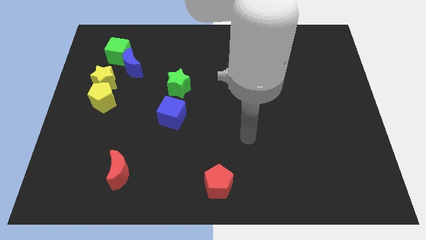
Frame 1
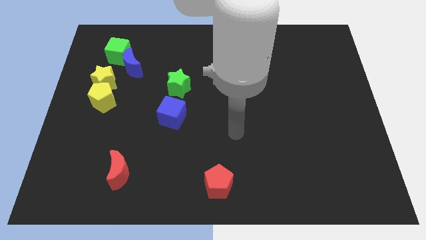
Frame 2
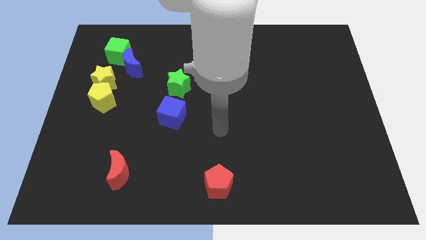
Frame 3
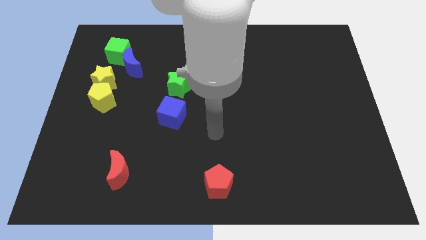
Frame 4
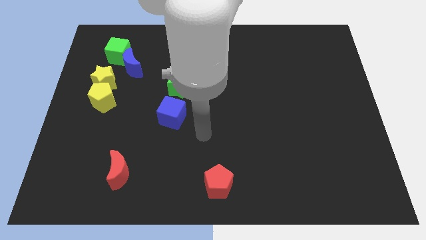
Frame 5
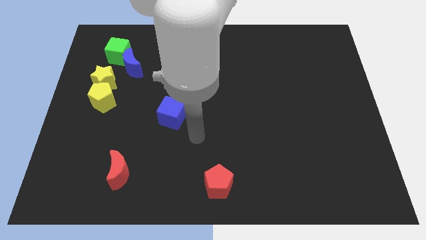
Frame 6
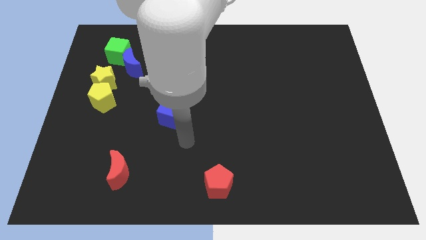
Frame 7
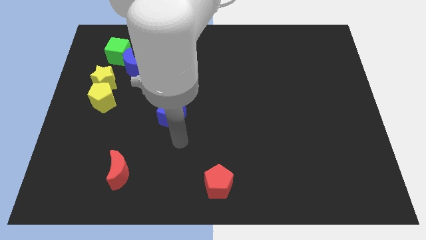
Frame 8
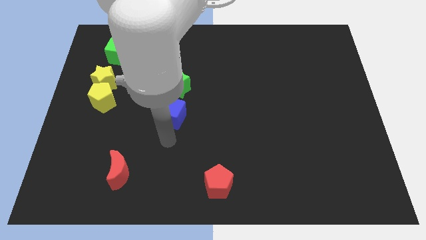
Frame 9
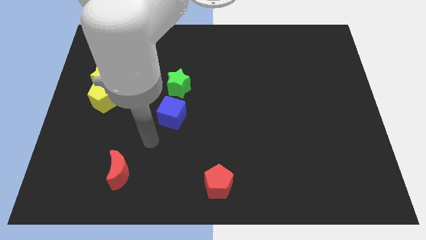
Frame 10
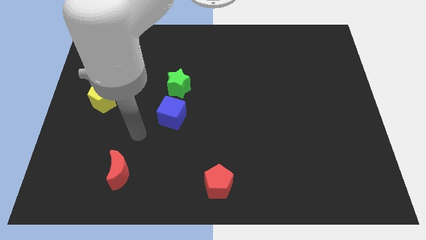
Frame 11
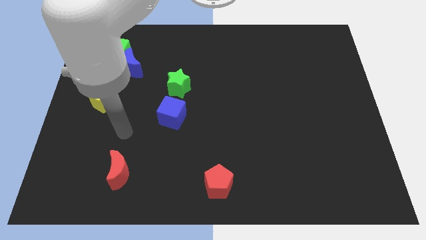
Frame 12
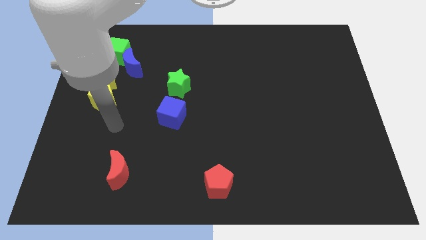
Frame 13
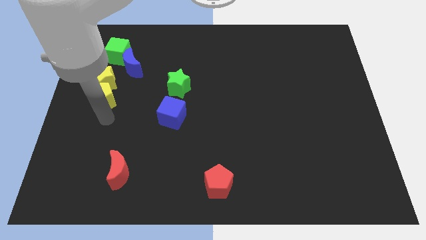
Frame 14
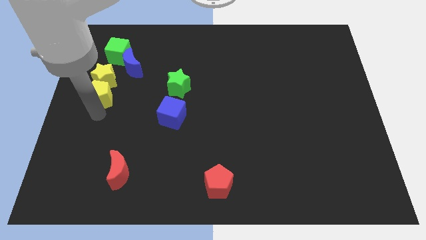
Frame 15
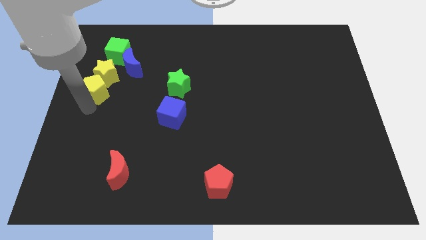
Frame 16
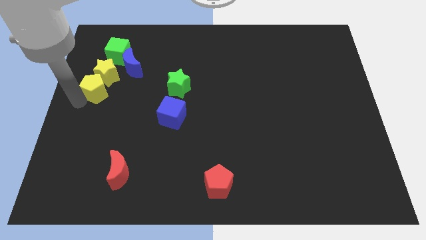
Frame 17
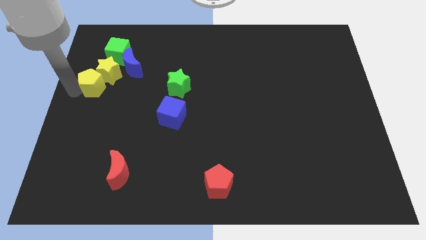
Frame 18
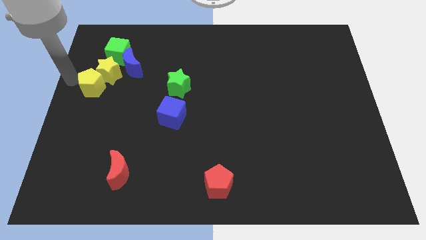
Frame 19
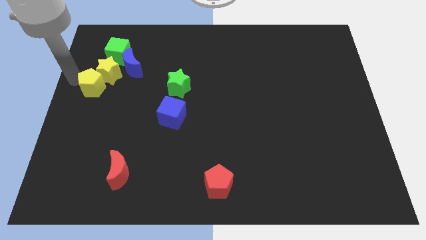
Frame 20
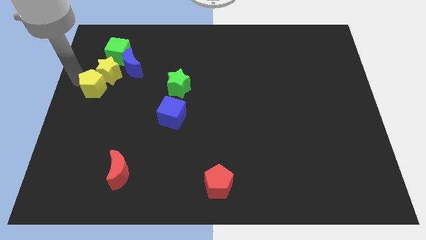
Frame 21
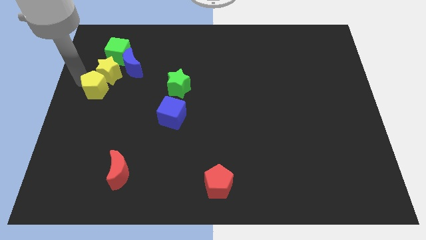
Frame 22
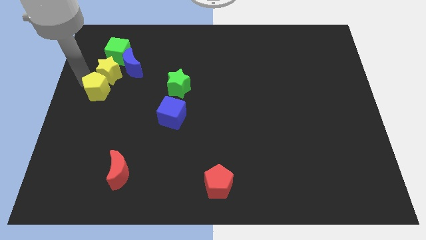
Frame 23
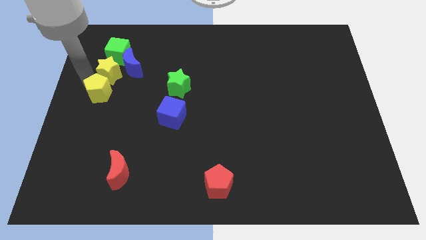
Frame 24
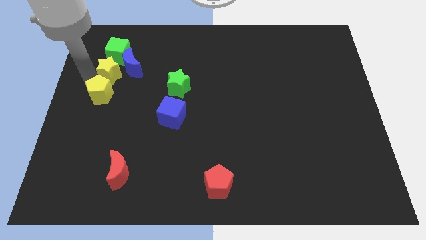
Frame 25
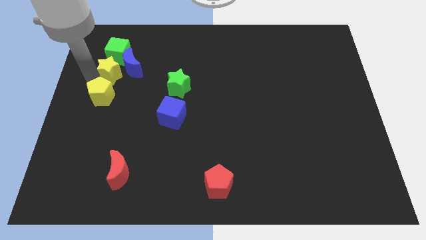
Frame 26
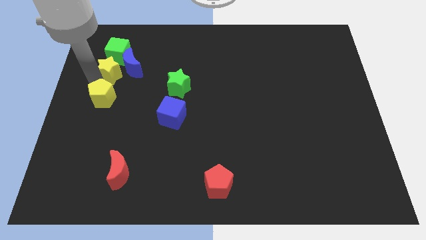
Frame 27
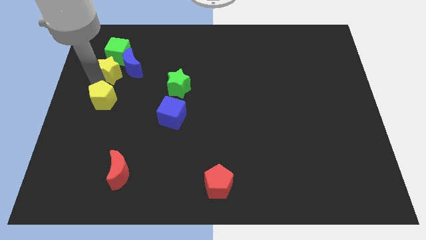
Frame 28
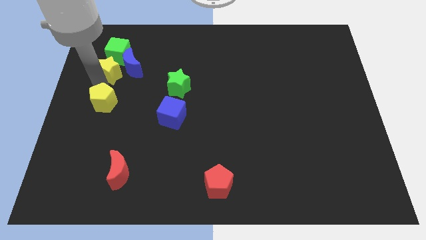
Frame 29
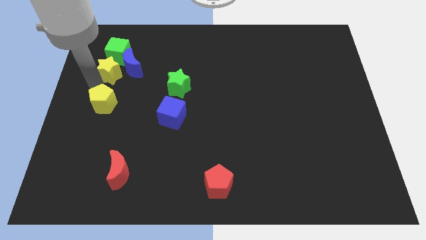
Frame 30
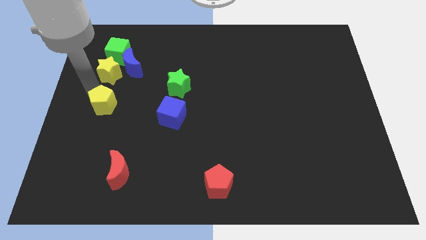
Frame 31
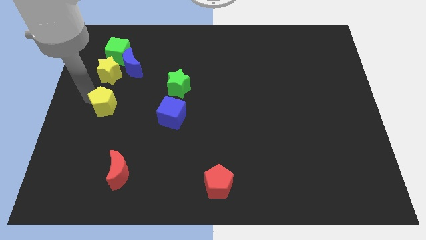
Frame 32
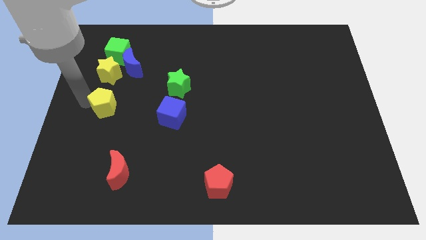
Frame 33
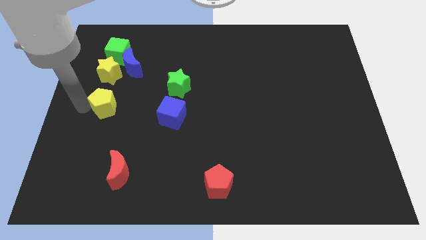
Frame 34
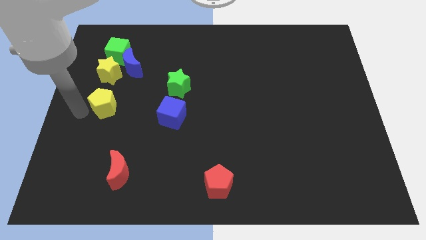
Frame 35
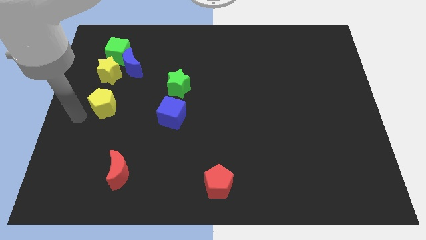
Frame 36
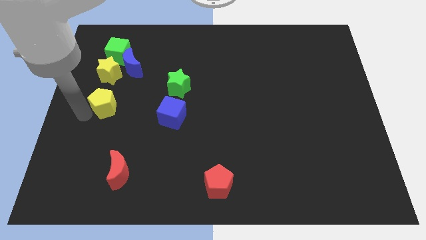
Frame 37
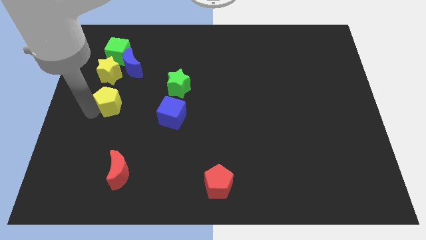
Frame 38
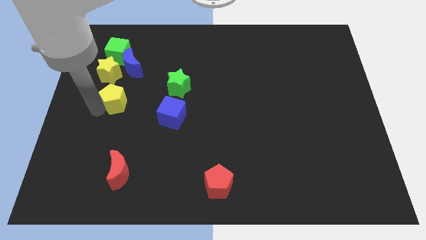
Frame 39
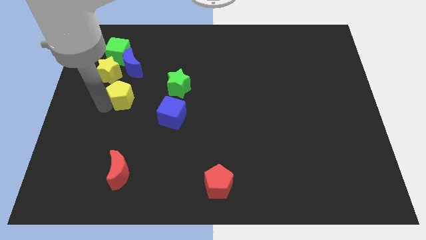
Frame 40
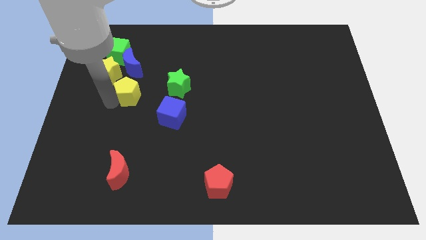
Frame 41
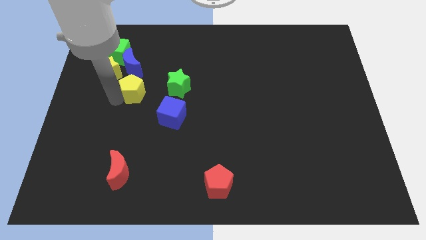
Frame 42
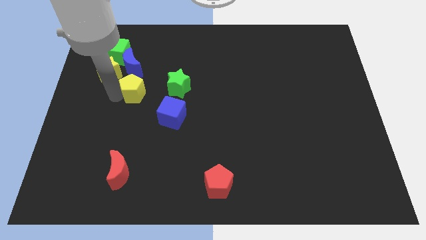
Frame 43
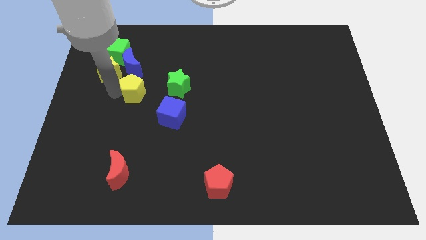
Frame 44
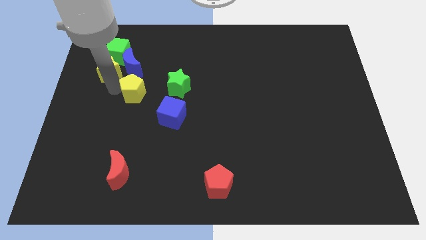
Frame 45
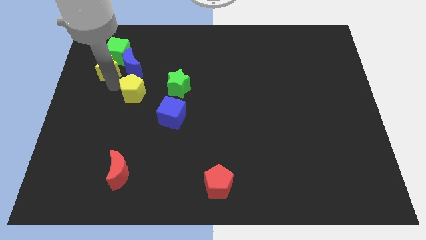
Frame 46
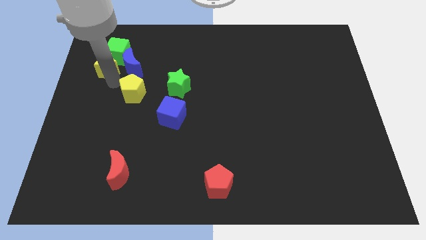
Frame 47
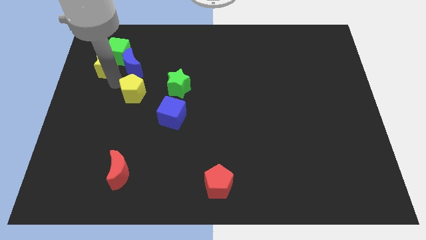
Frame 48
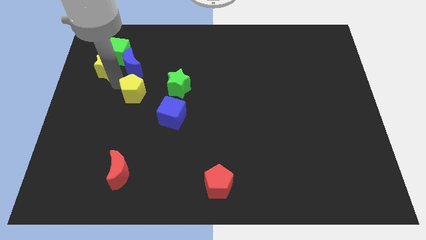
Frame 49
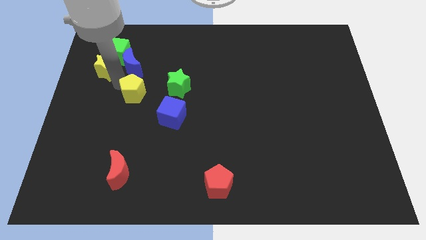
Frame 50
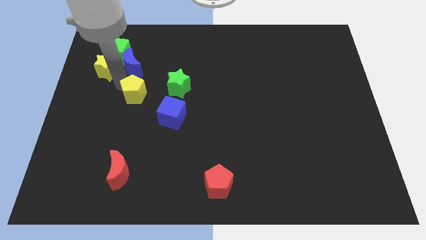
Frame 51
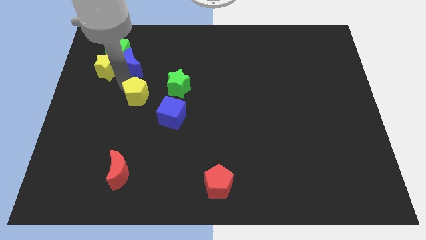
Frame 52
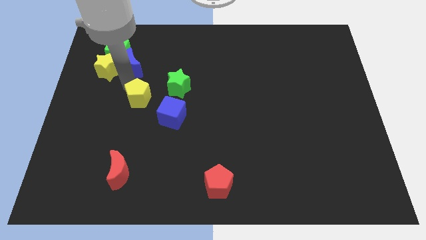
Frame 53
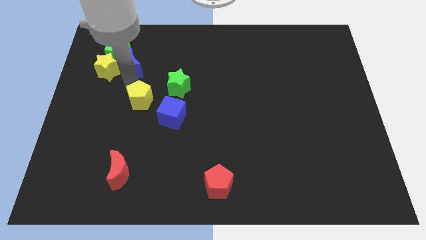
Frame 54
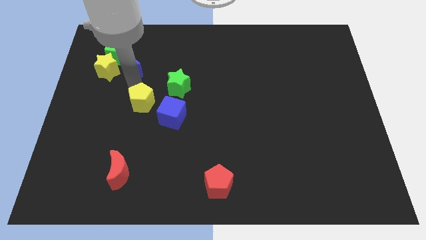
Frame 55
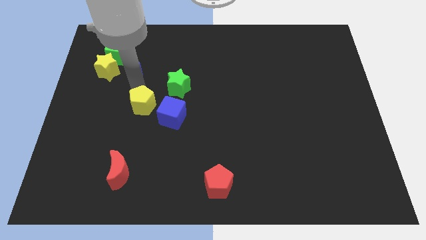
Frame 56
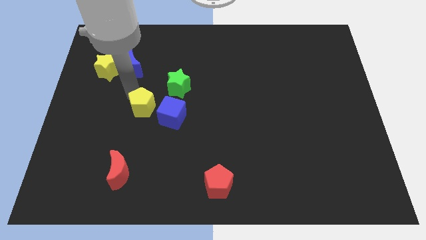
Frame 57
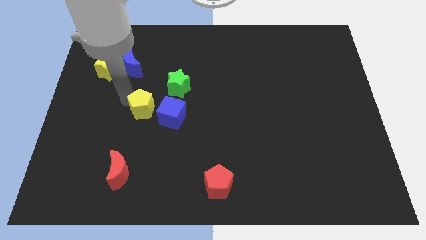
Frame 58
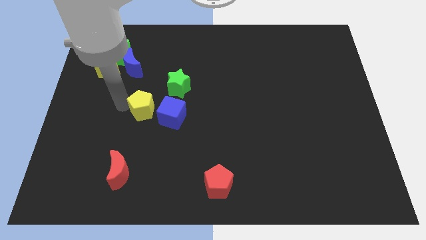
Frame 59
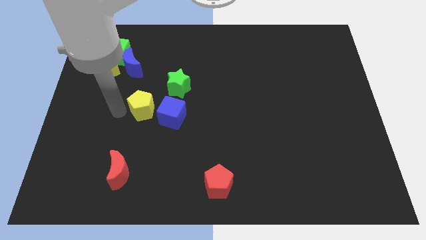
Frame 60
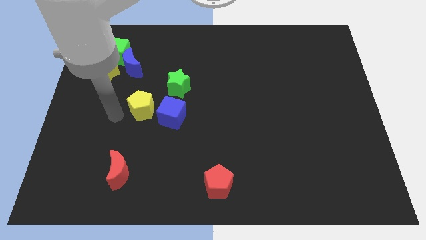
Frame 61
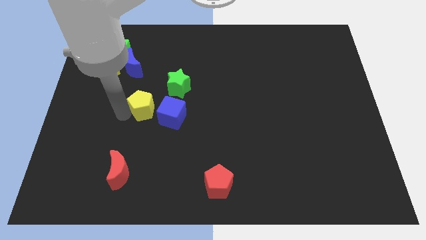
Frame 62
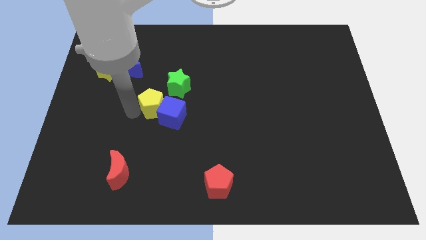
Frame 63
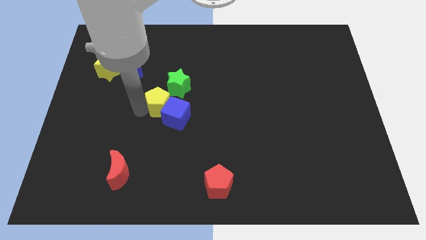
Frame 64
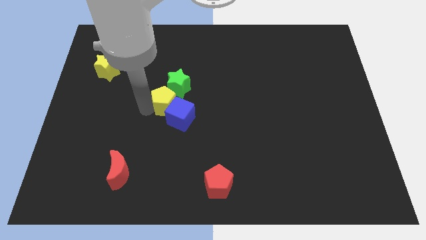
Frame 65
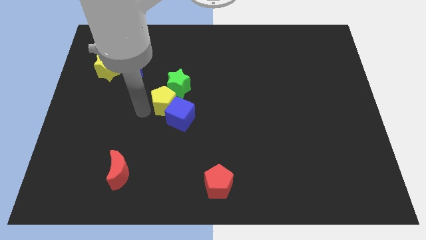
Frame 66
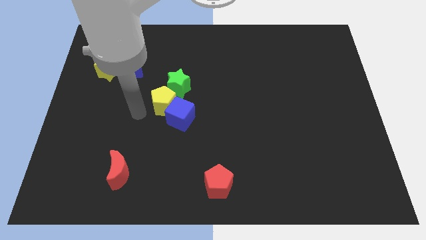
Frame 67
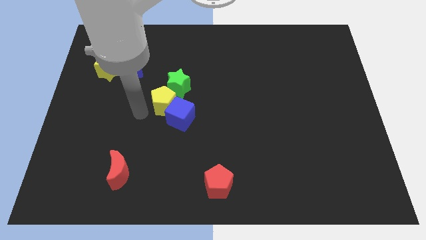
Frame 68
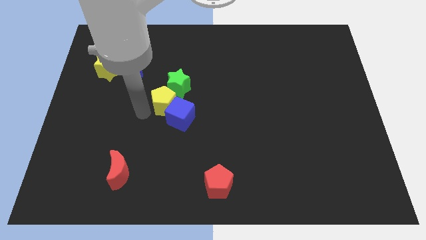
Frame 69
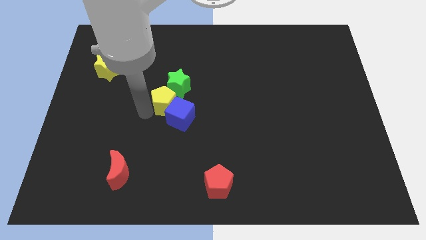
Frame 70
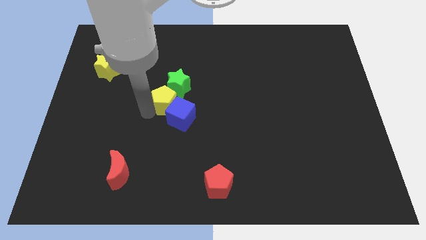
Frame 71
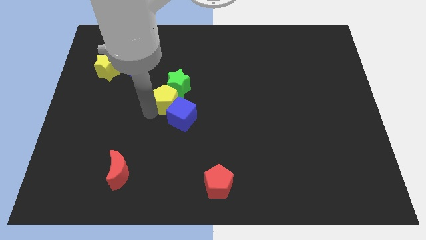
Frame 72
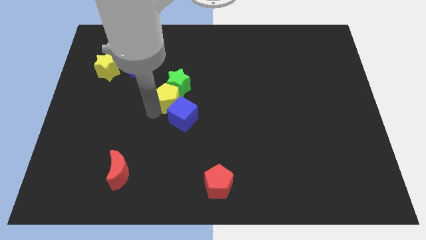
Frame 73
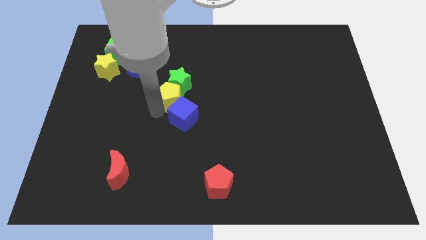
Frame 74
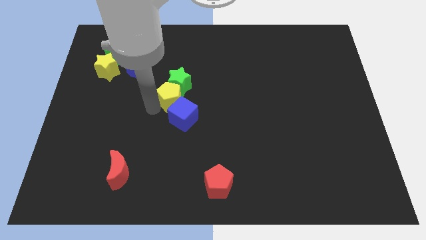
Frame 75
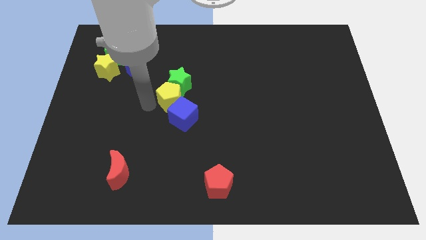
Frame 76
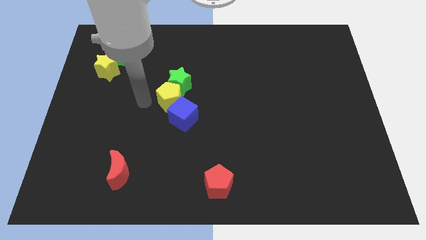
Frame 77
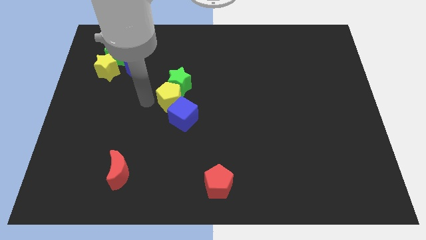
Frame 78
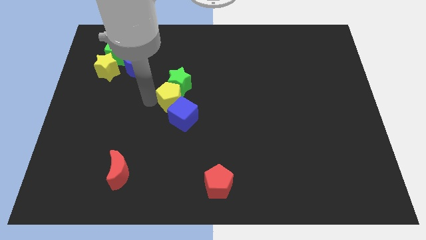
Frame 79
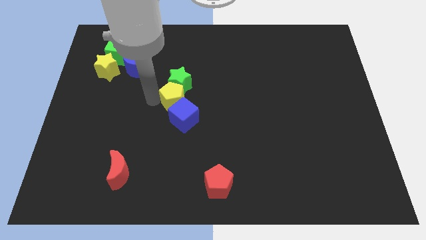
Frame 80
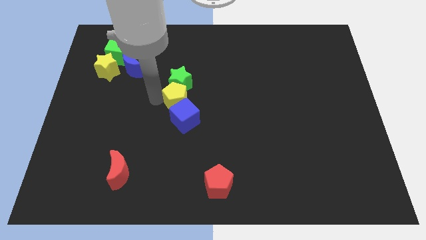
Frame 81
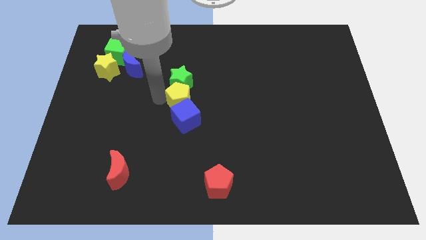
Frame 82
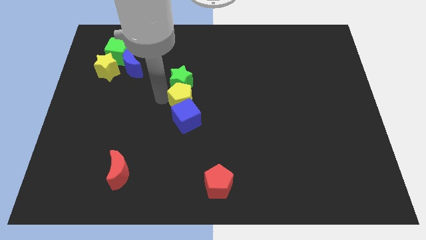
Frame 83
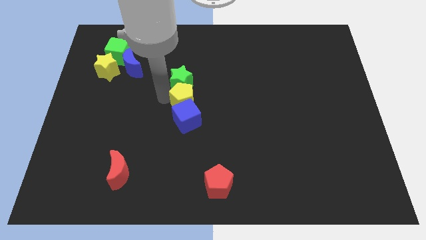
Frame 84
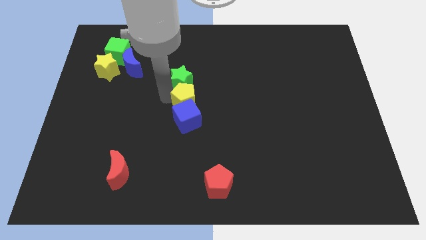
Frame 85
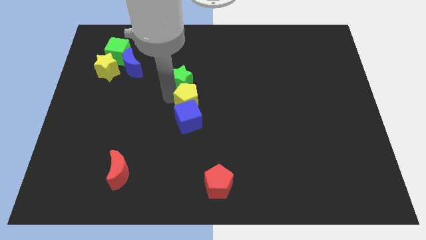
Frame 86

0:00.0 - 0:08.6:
move the yellow pentagon to the right

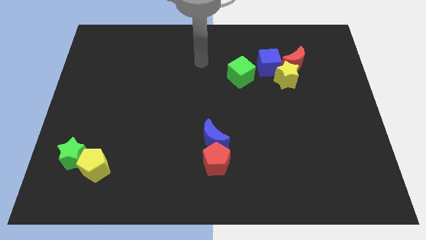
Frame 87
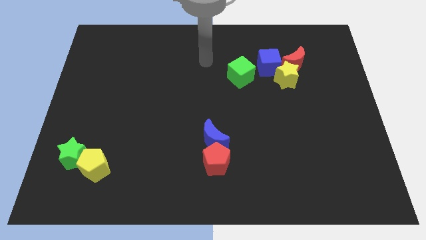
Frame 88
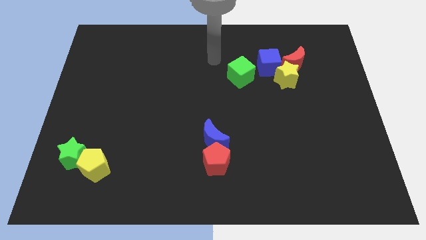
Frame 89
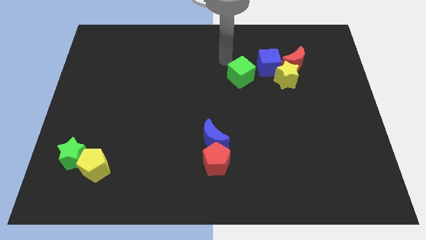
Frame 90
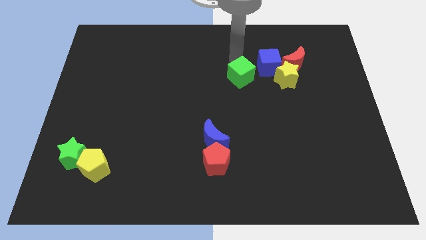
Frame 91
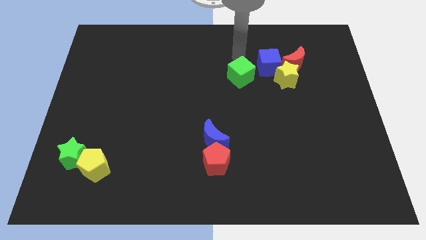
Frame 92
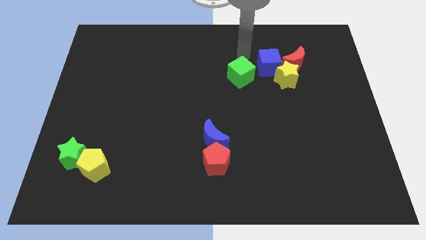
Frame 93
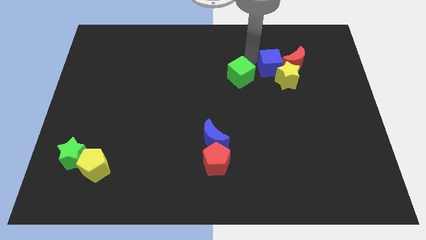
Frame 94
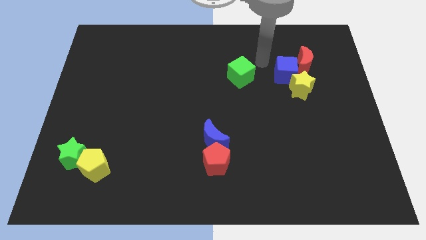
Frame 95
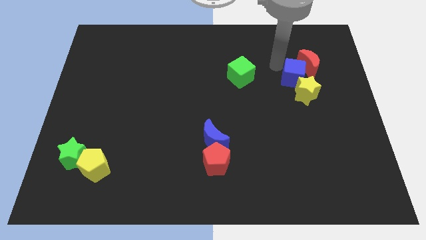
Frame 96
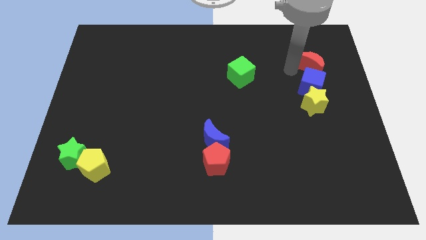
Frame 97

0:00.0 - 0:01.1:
move the yellow star downwards a little bit
